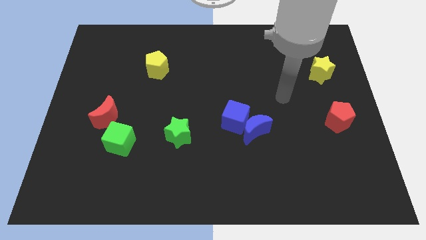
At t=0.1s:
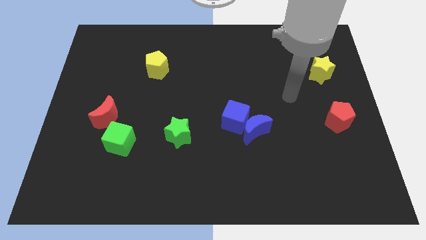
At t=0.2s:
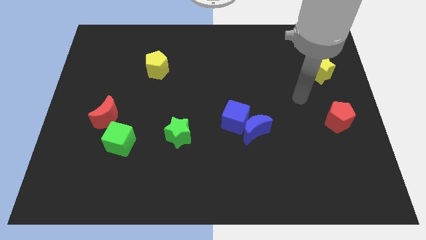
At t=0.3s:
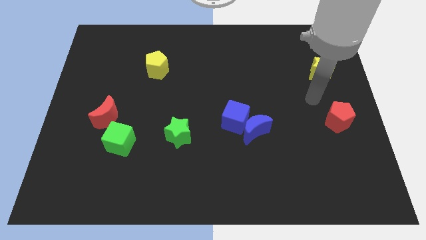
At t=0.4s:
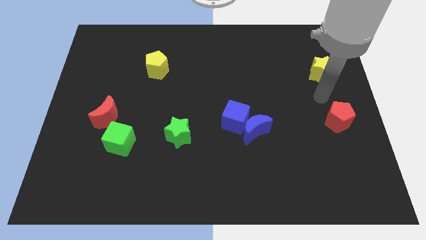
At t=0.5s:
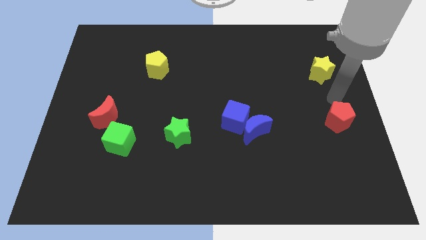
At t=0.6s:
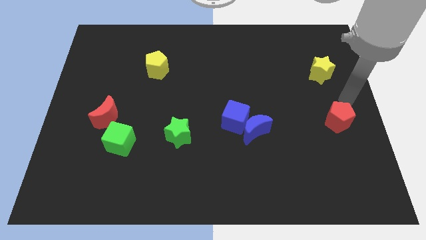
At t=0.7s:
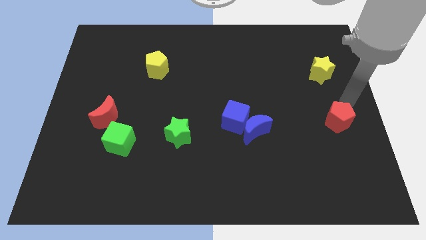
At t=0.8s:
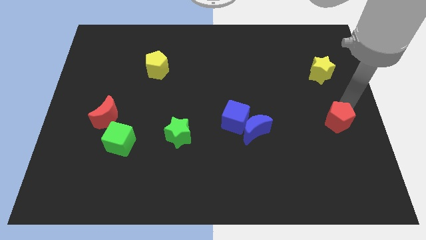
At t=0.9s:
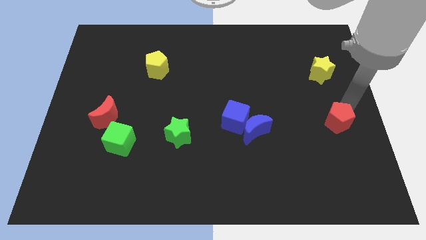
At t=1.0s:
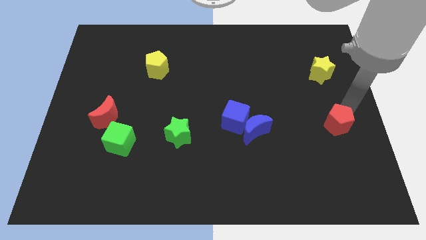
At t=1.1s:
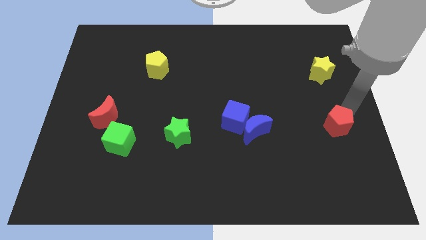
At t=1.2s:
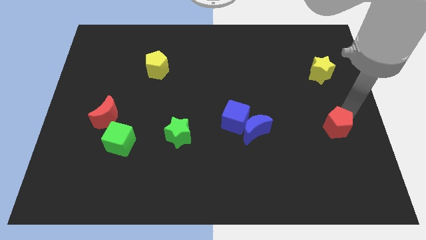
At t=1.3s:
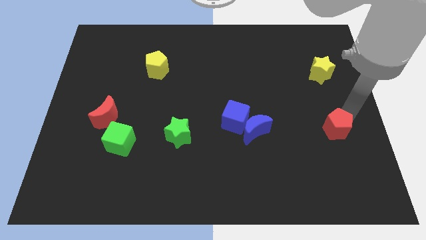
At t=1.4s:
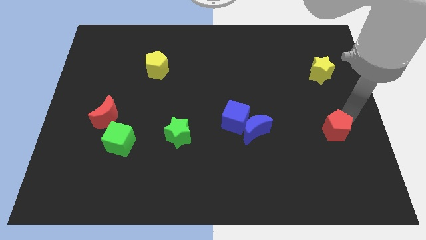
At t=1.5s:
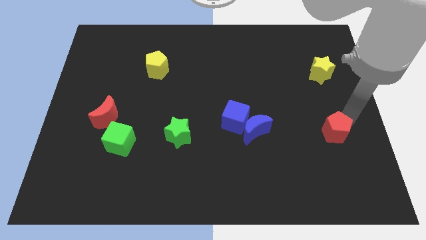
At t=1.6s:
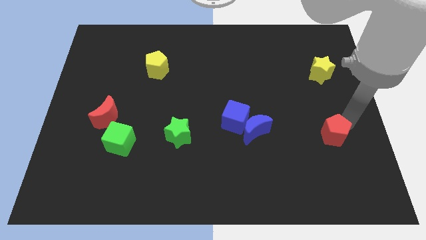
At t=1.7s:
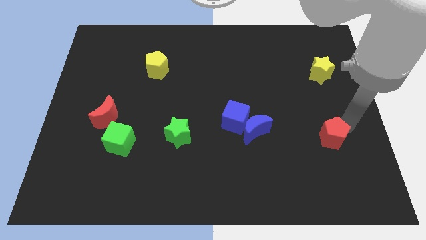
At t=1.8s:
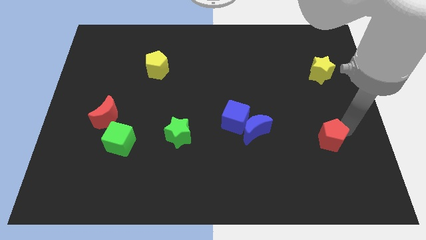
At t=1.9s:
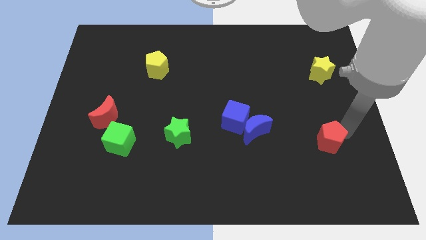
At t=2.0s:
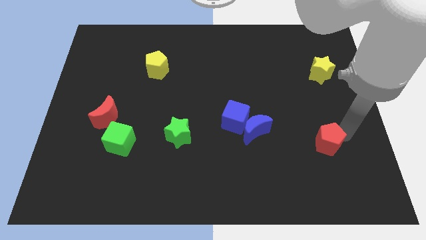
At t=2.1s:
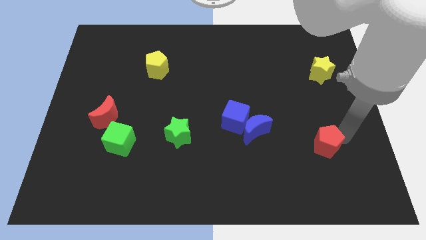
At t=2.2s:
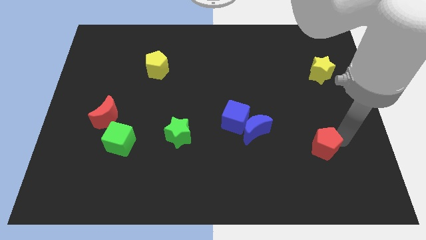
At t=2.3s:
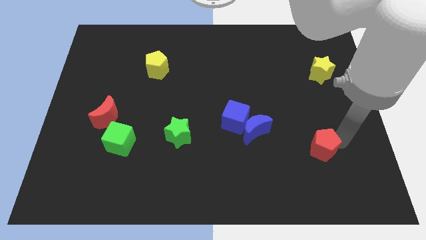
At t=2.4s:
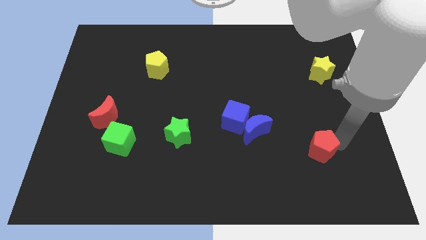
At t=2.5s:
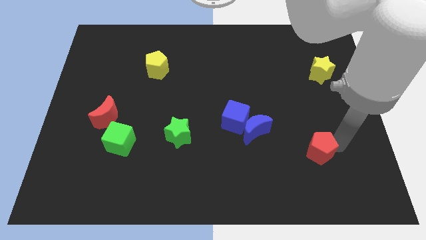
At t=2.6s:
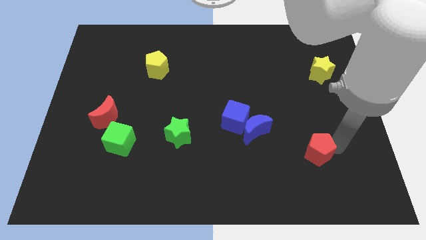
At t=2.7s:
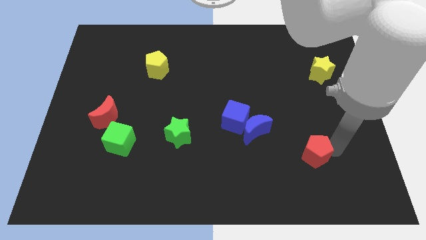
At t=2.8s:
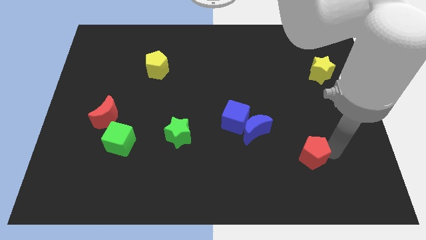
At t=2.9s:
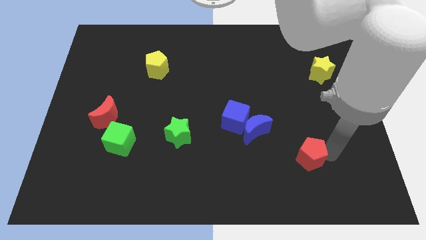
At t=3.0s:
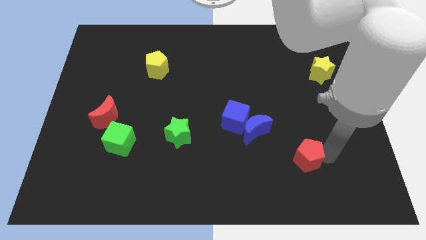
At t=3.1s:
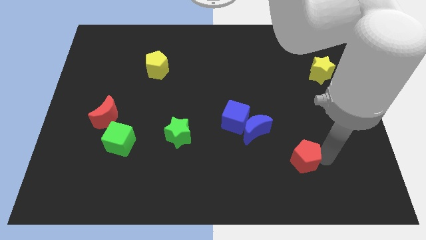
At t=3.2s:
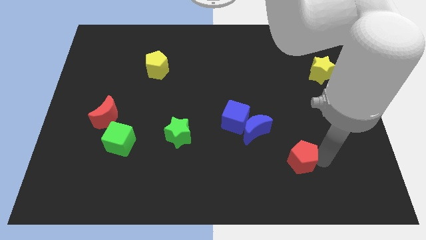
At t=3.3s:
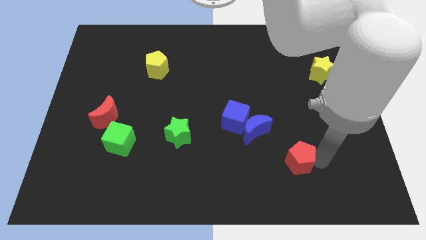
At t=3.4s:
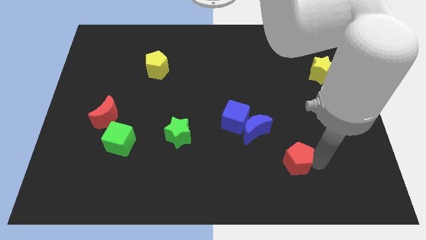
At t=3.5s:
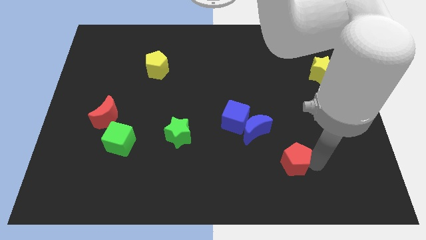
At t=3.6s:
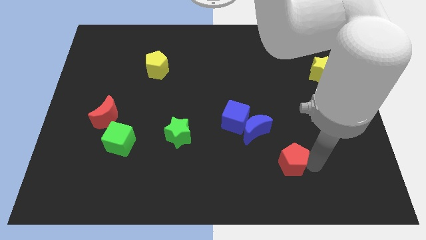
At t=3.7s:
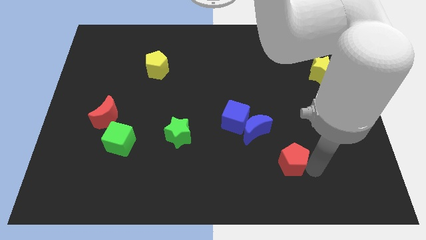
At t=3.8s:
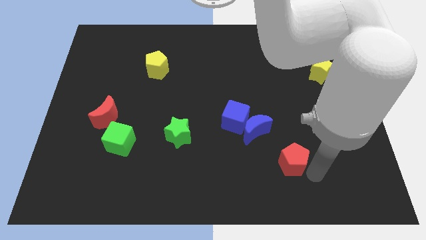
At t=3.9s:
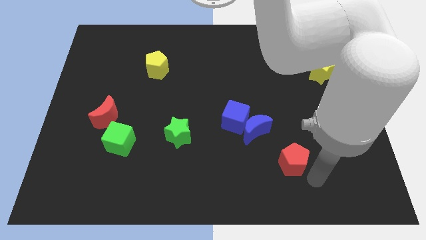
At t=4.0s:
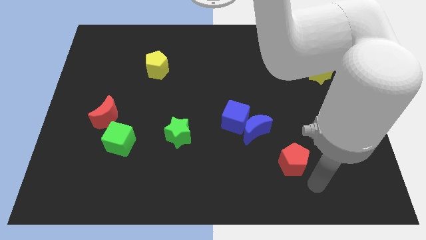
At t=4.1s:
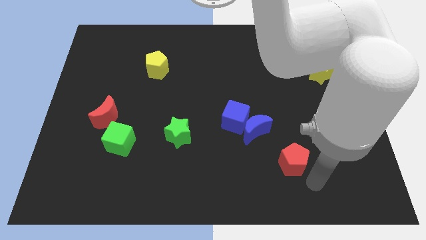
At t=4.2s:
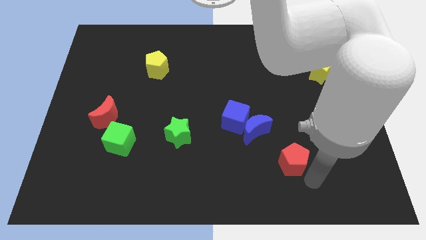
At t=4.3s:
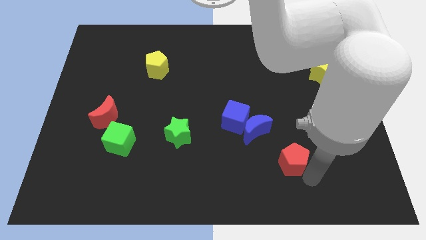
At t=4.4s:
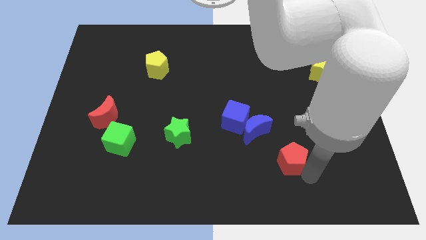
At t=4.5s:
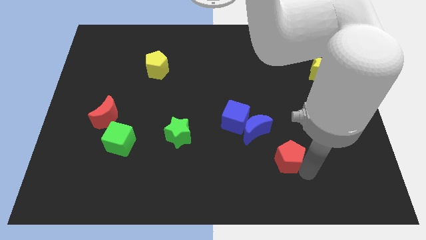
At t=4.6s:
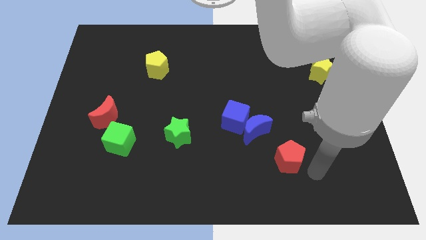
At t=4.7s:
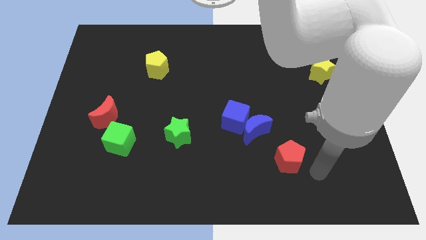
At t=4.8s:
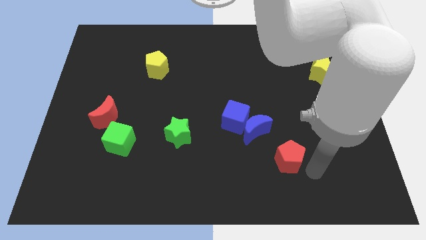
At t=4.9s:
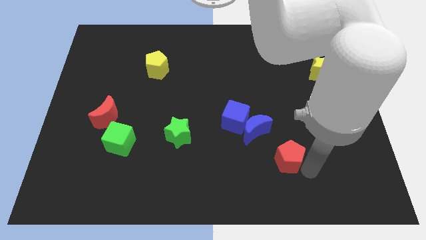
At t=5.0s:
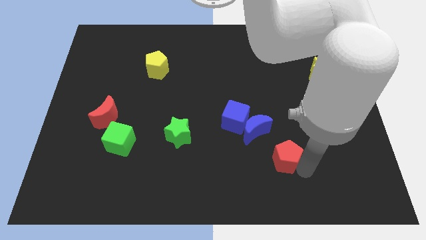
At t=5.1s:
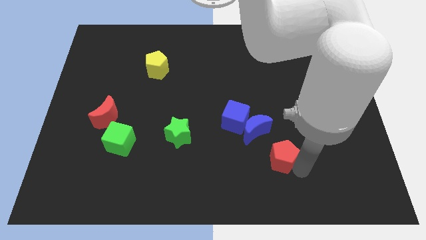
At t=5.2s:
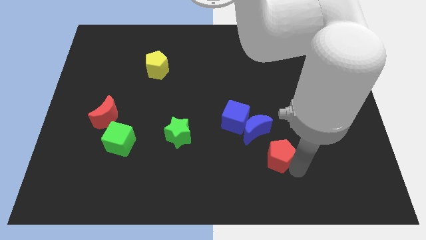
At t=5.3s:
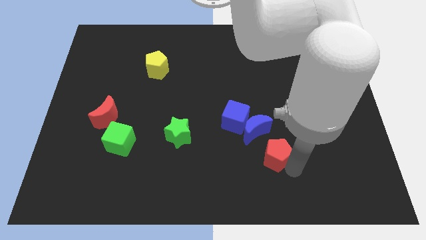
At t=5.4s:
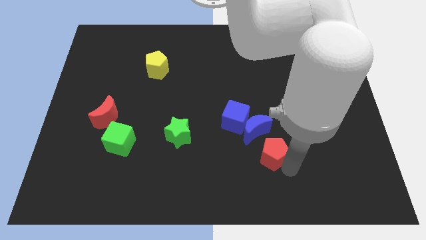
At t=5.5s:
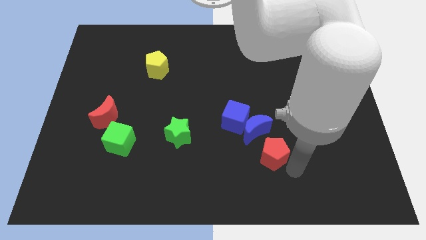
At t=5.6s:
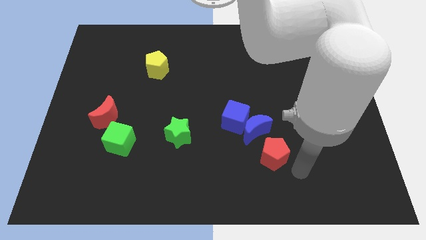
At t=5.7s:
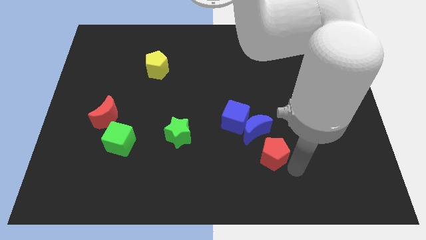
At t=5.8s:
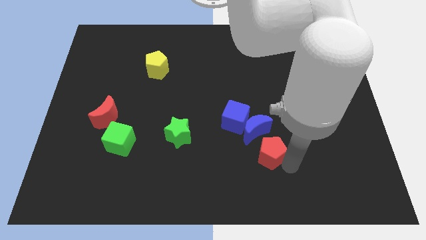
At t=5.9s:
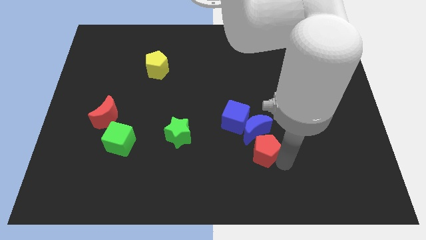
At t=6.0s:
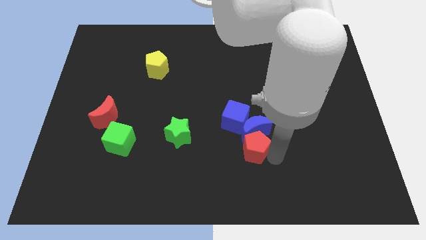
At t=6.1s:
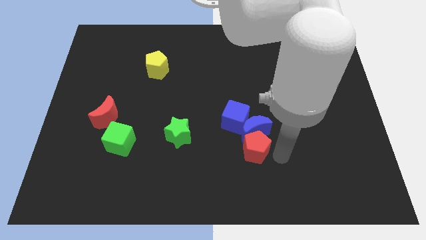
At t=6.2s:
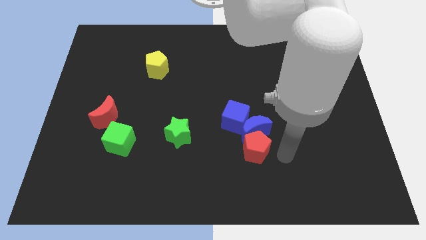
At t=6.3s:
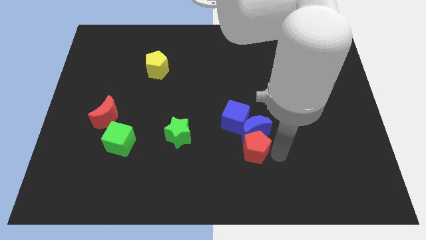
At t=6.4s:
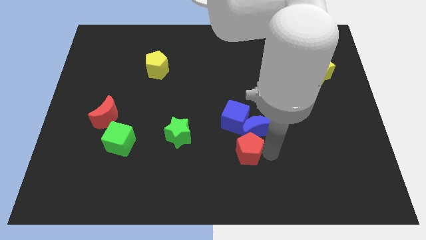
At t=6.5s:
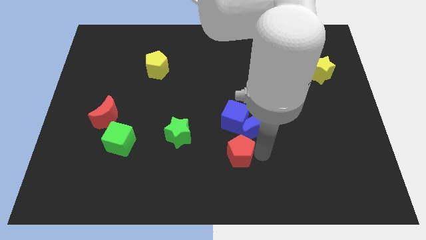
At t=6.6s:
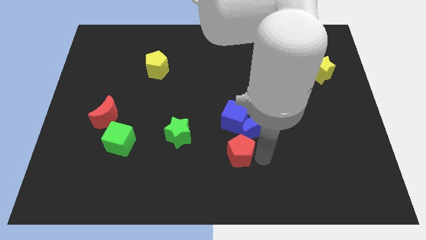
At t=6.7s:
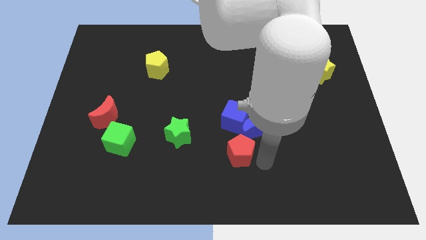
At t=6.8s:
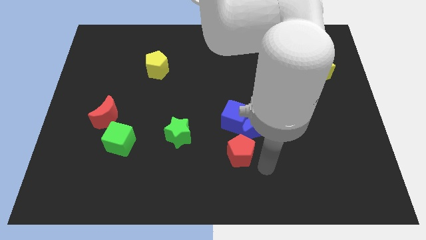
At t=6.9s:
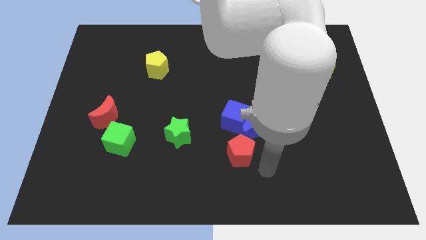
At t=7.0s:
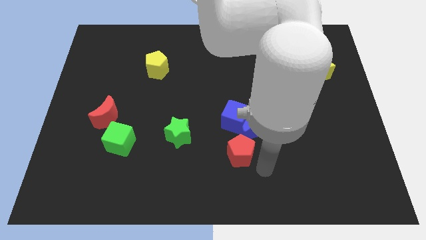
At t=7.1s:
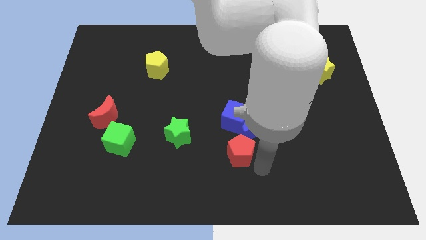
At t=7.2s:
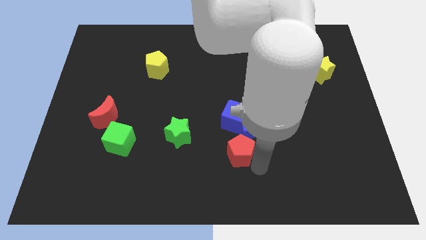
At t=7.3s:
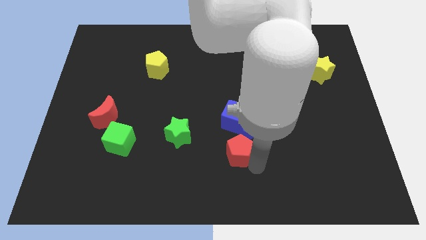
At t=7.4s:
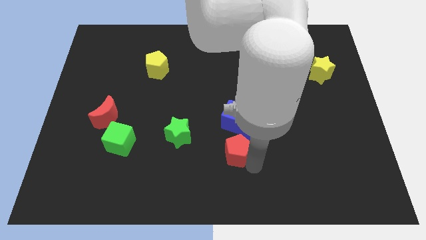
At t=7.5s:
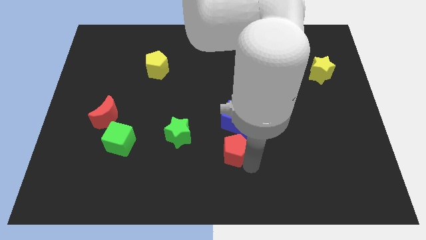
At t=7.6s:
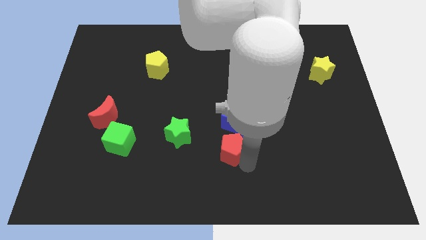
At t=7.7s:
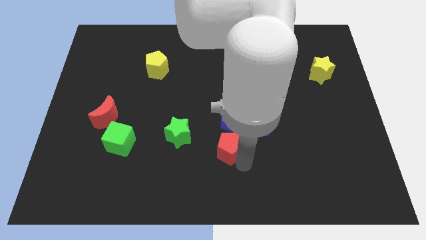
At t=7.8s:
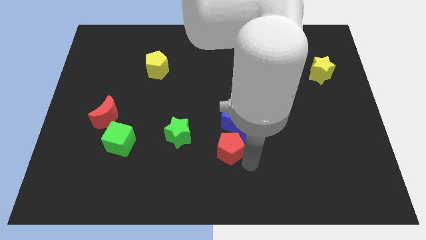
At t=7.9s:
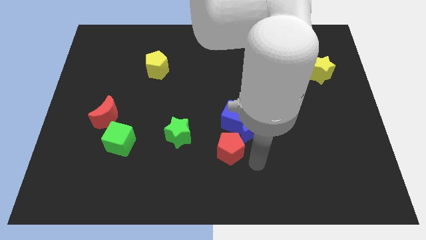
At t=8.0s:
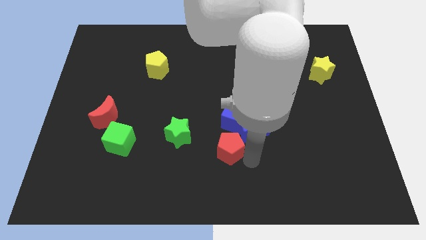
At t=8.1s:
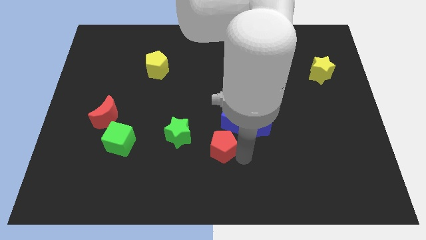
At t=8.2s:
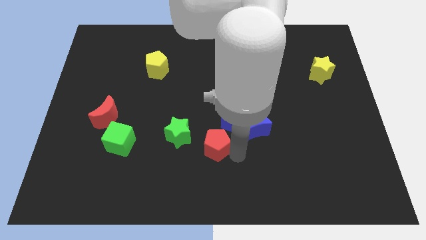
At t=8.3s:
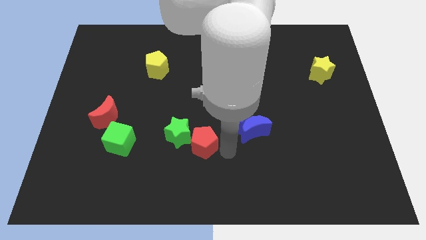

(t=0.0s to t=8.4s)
put the red pentagon towards the green star
